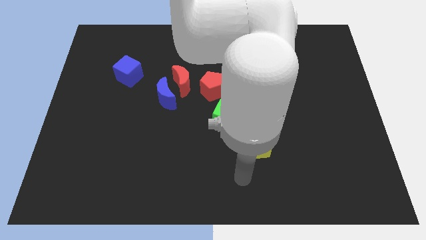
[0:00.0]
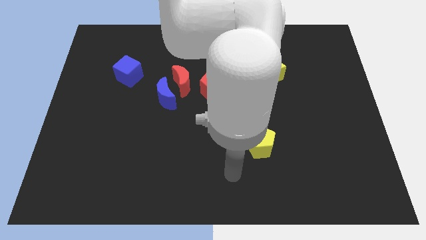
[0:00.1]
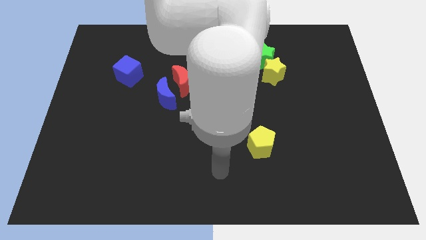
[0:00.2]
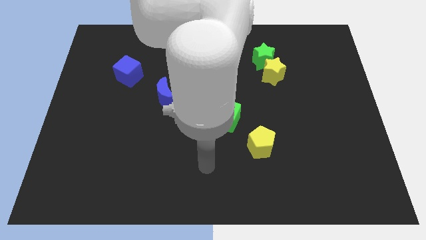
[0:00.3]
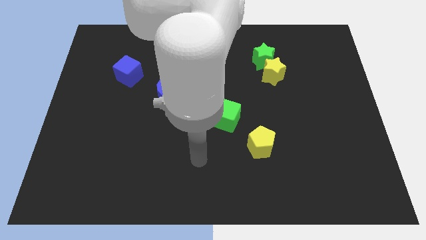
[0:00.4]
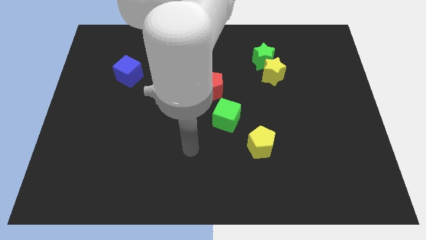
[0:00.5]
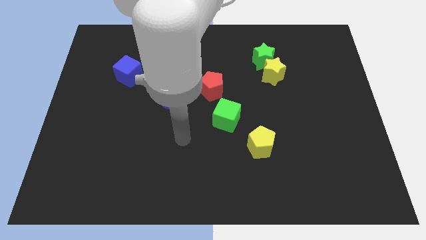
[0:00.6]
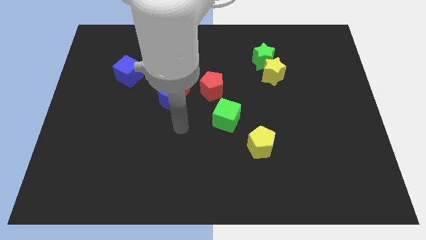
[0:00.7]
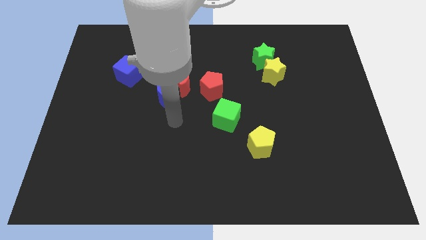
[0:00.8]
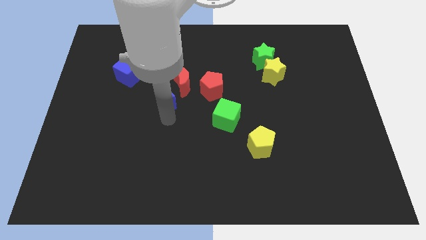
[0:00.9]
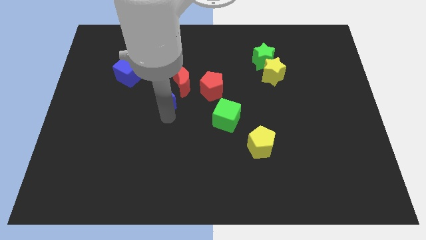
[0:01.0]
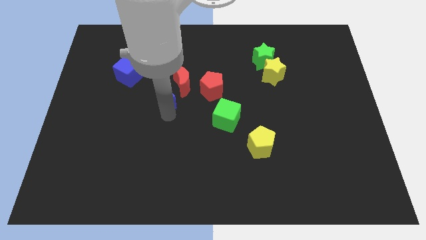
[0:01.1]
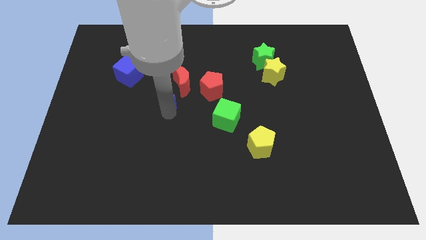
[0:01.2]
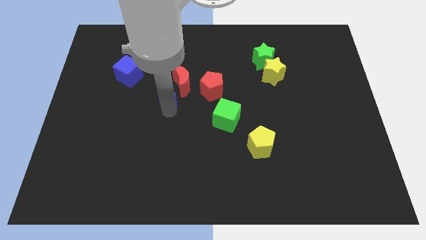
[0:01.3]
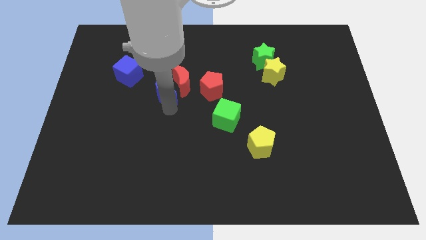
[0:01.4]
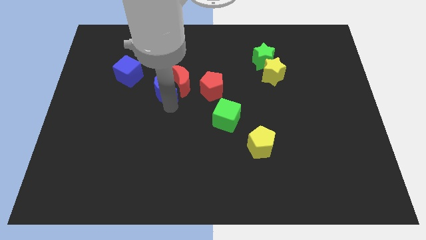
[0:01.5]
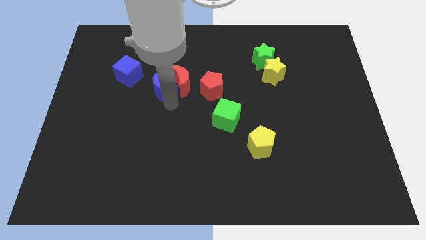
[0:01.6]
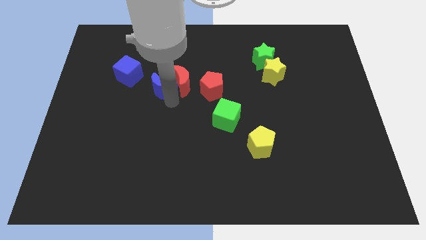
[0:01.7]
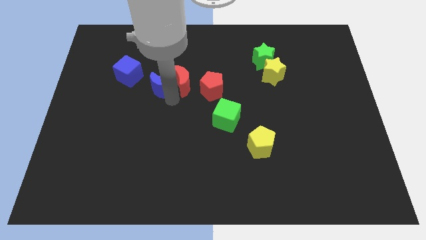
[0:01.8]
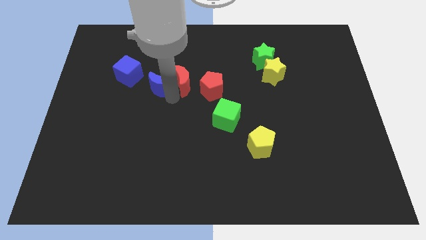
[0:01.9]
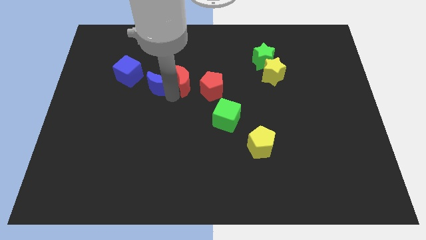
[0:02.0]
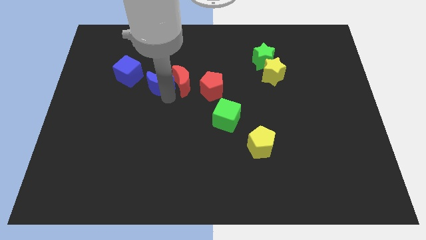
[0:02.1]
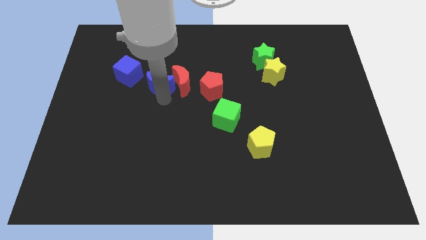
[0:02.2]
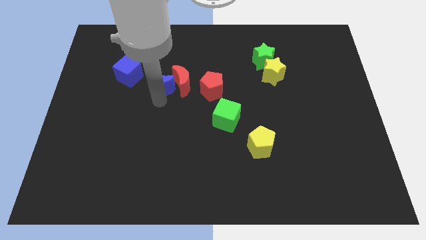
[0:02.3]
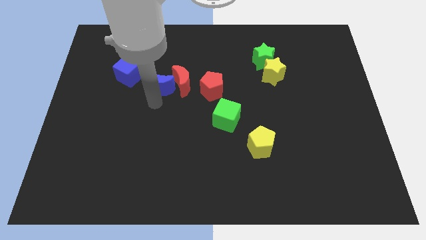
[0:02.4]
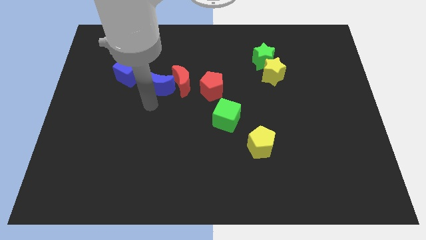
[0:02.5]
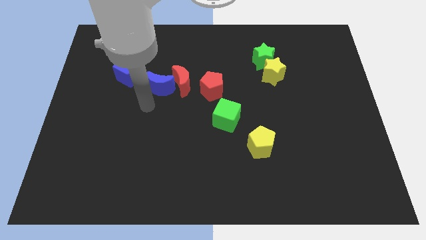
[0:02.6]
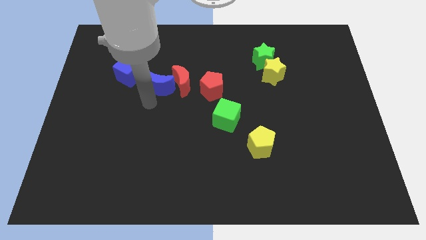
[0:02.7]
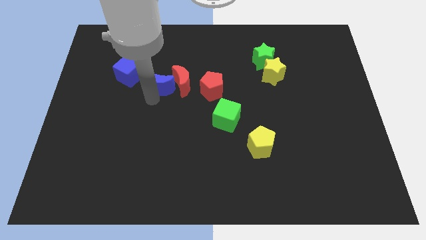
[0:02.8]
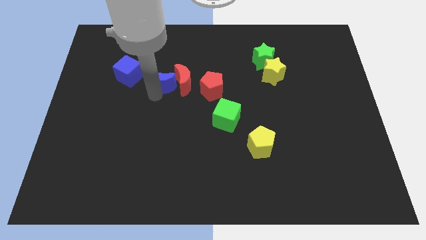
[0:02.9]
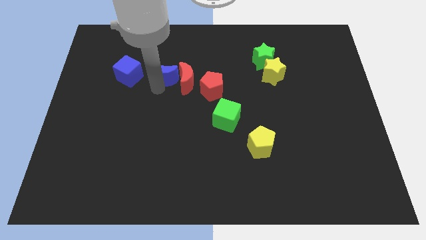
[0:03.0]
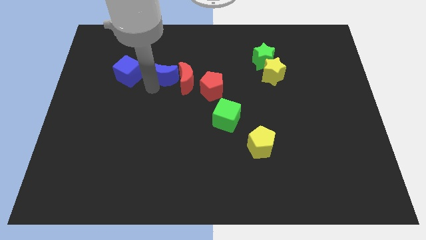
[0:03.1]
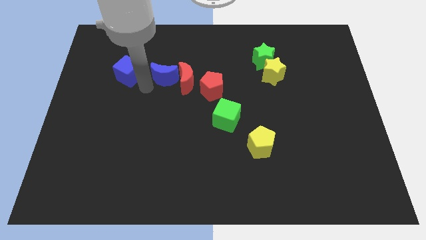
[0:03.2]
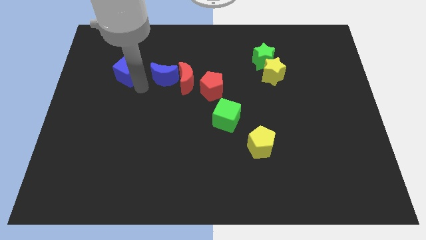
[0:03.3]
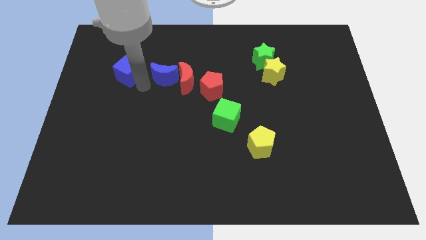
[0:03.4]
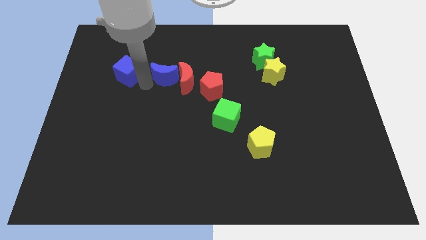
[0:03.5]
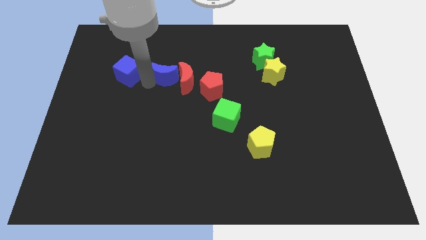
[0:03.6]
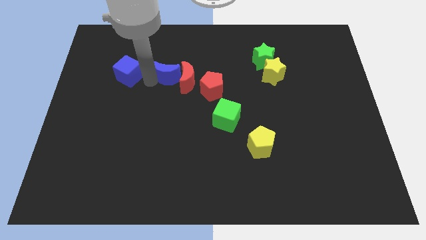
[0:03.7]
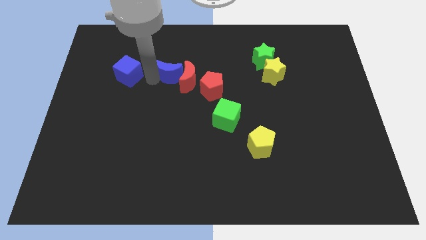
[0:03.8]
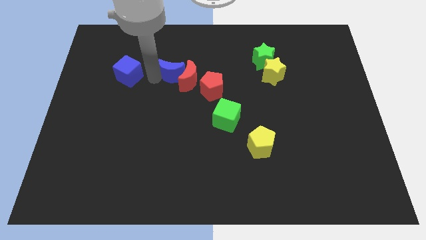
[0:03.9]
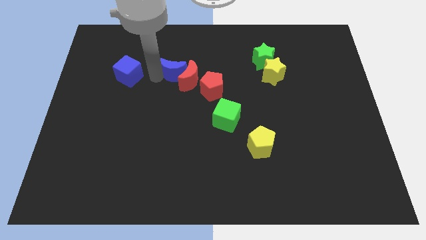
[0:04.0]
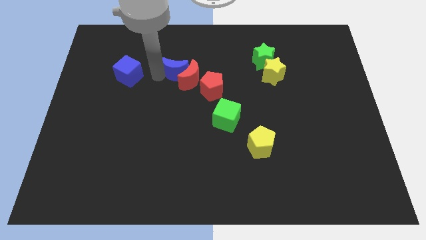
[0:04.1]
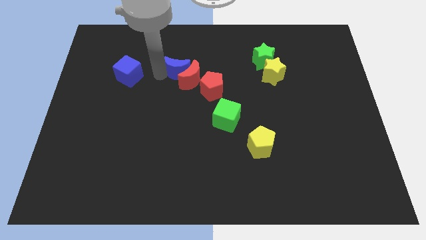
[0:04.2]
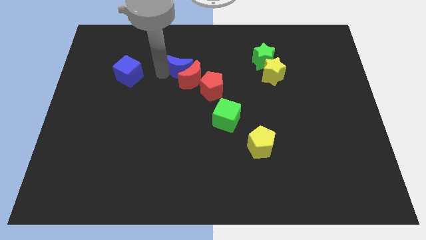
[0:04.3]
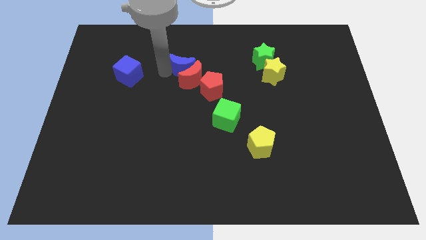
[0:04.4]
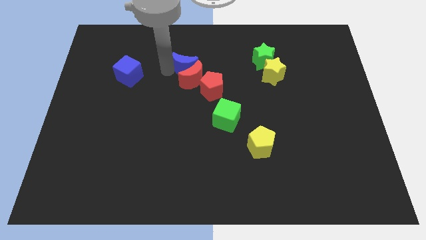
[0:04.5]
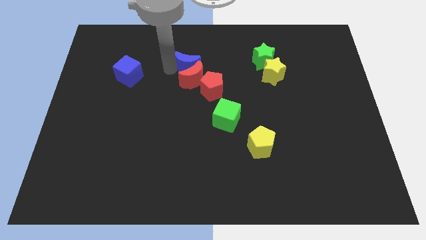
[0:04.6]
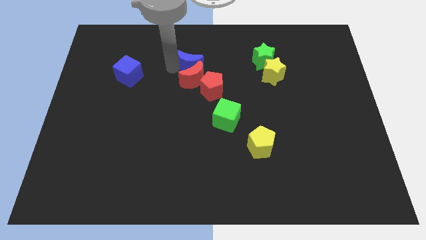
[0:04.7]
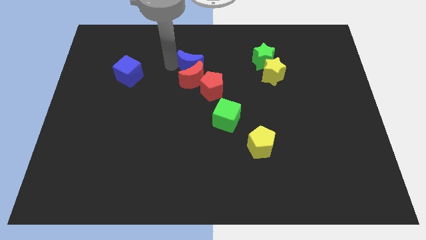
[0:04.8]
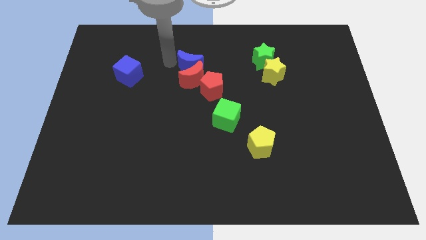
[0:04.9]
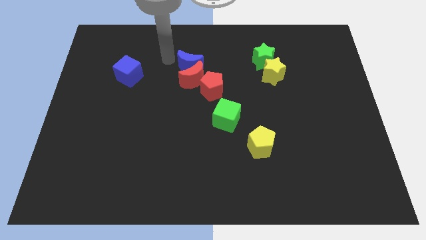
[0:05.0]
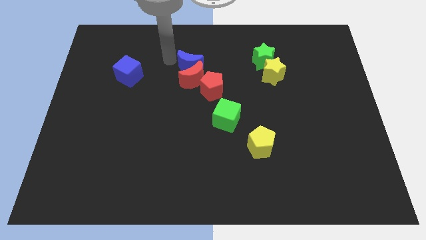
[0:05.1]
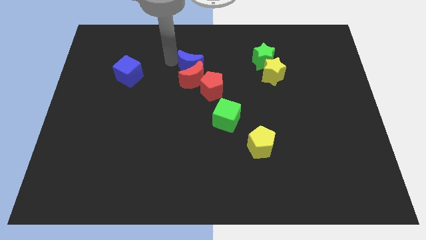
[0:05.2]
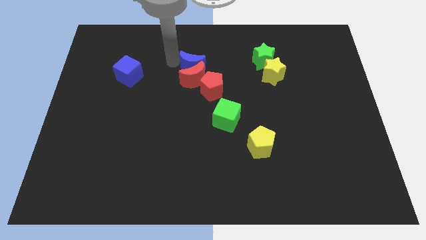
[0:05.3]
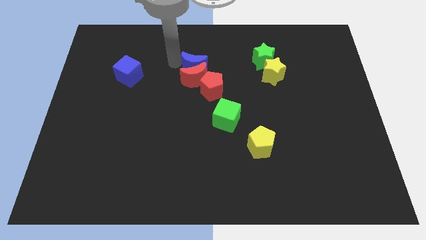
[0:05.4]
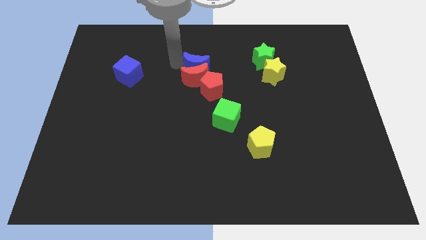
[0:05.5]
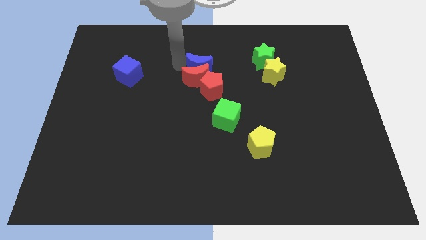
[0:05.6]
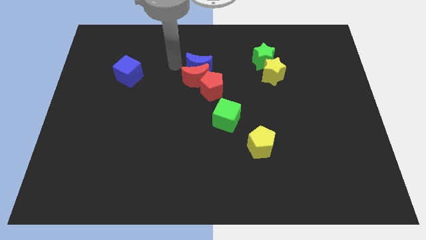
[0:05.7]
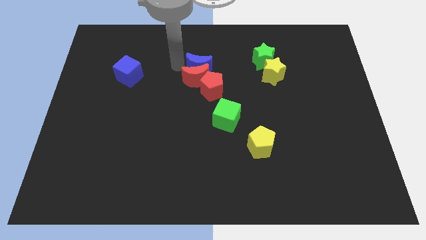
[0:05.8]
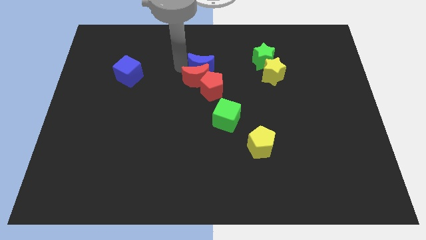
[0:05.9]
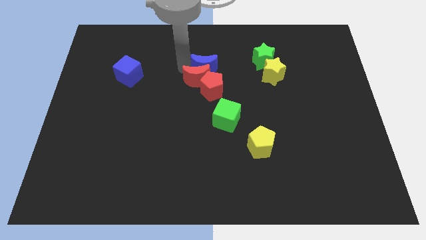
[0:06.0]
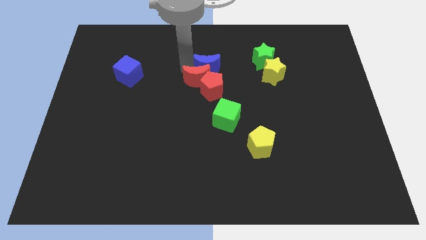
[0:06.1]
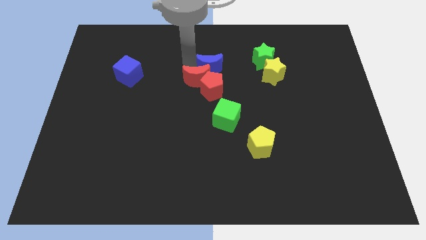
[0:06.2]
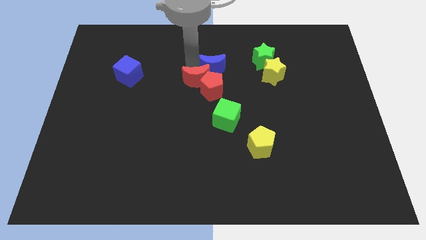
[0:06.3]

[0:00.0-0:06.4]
move the blue moon diagonally up and to the right of the red pentagon

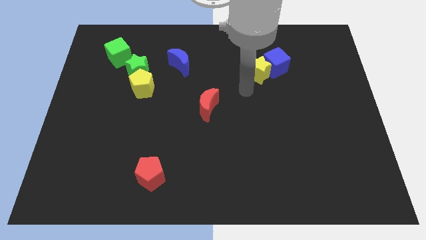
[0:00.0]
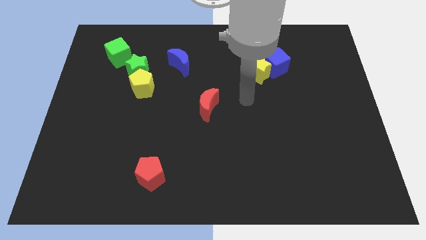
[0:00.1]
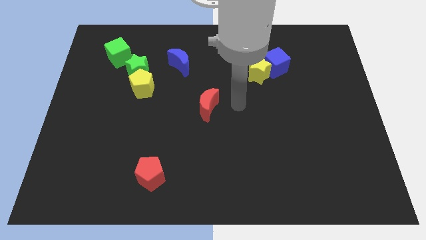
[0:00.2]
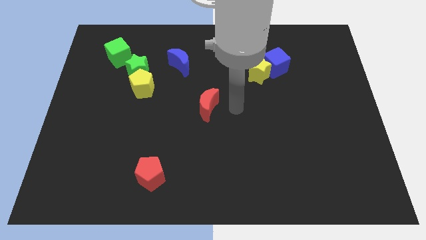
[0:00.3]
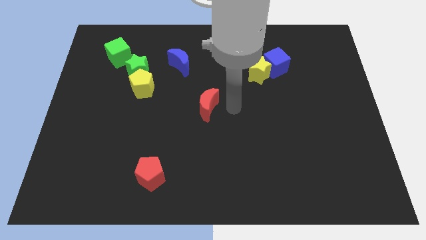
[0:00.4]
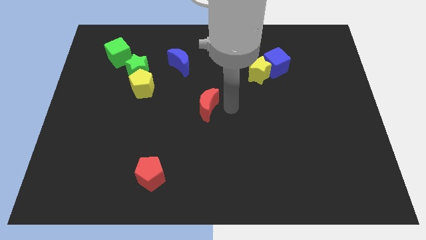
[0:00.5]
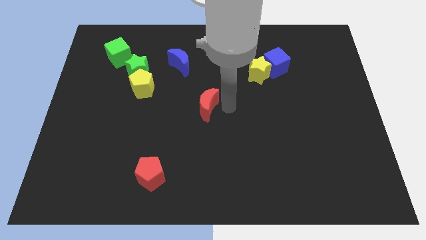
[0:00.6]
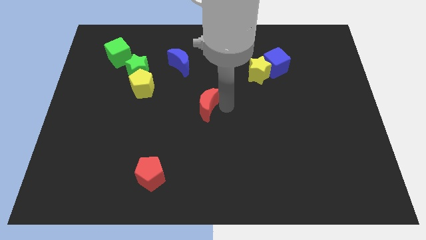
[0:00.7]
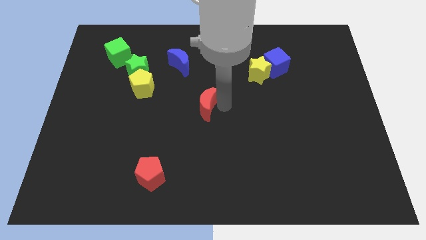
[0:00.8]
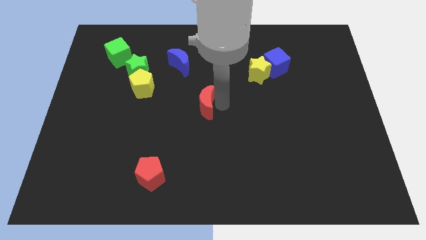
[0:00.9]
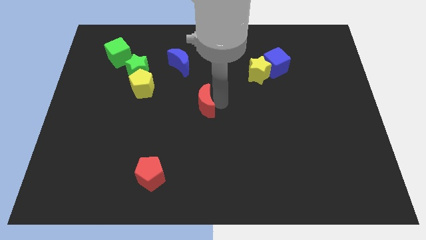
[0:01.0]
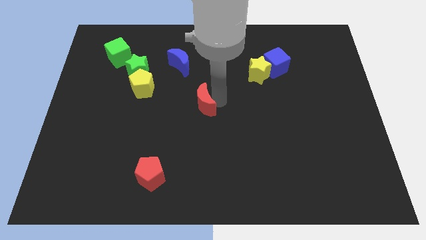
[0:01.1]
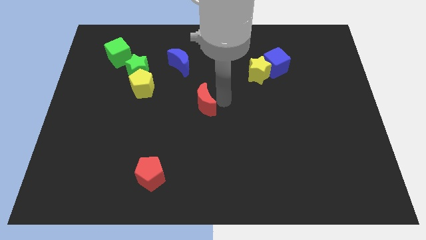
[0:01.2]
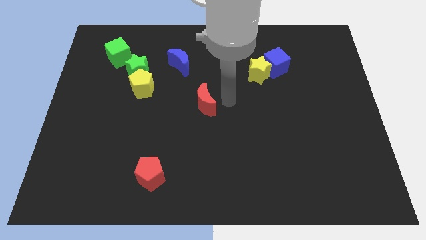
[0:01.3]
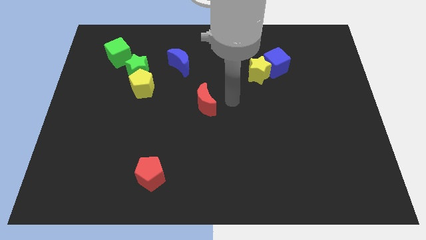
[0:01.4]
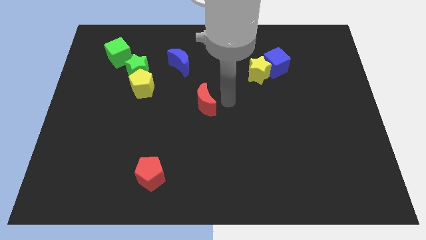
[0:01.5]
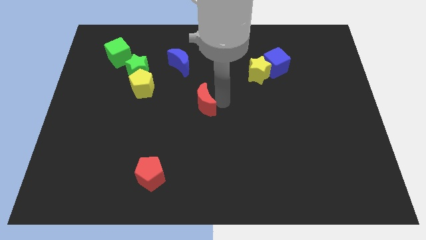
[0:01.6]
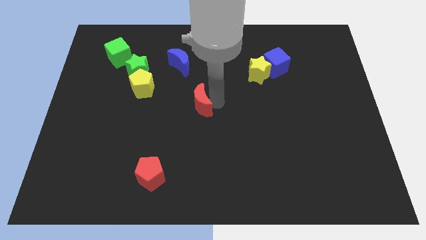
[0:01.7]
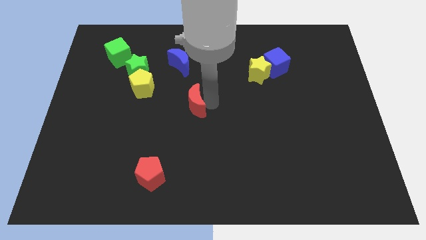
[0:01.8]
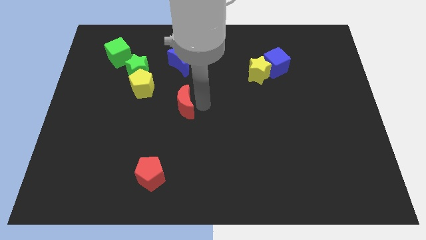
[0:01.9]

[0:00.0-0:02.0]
slide the red moon to the bottom right side of the yellow pentagon
